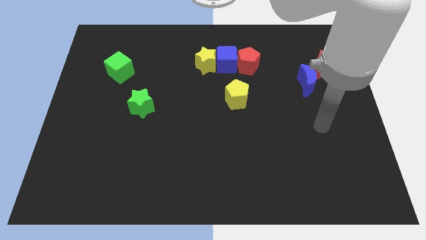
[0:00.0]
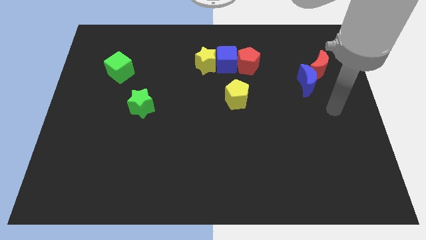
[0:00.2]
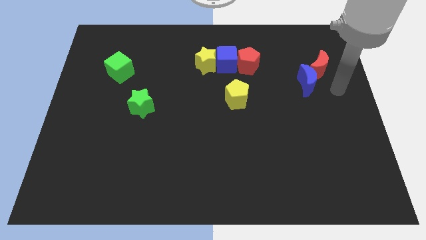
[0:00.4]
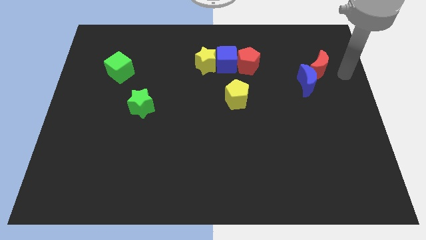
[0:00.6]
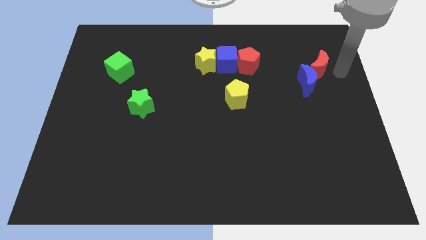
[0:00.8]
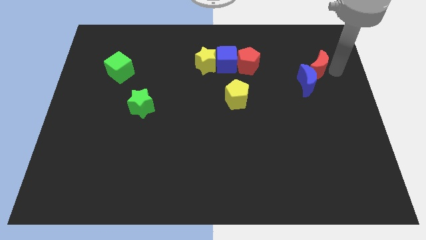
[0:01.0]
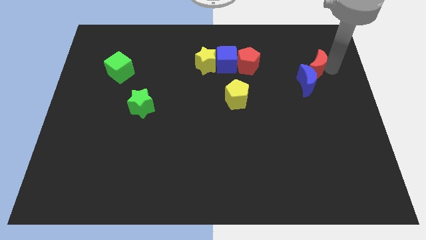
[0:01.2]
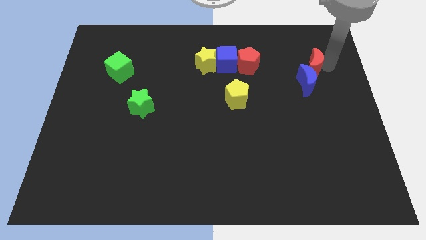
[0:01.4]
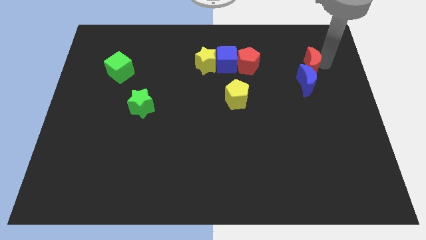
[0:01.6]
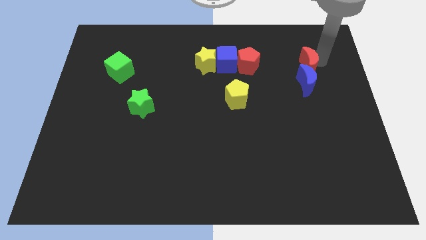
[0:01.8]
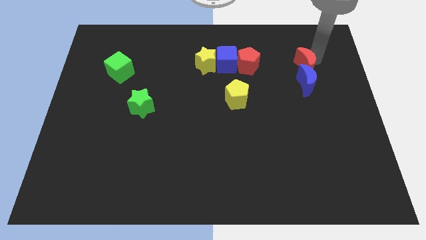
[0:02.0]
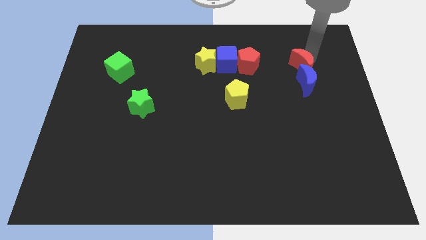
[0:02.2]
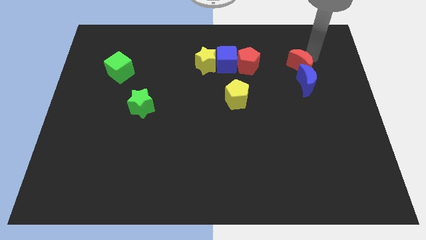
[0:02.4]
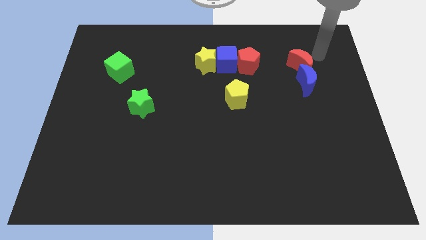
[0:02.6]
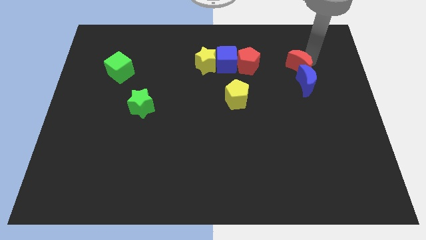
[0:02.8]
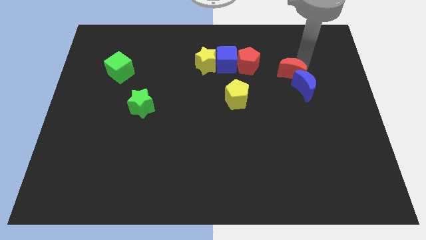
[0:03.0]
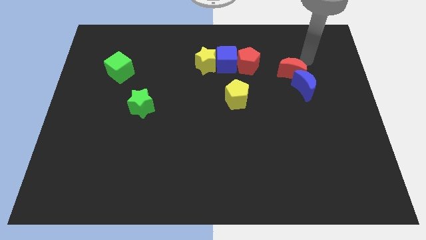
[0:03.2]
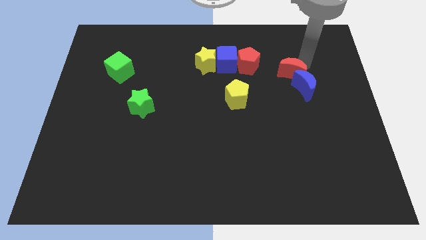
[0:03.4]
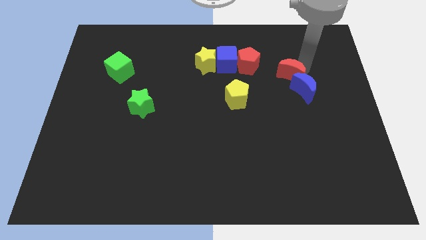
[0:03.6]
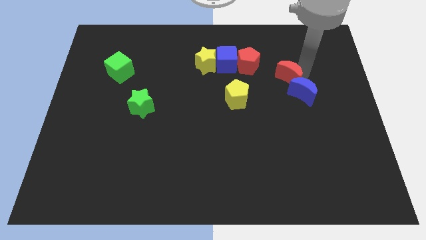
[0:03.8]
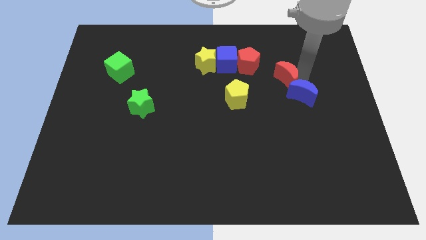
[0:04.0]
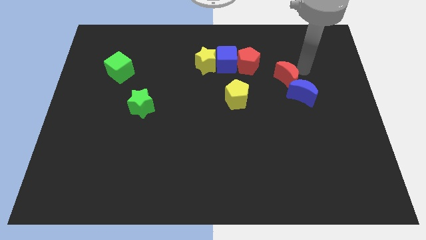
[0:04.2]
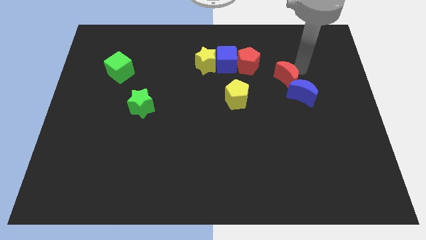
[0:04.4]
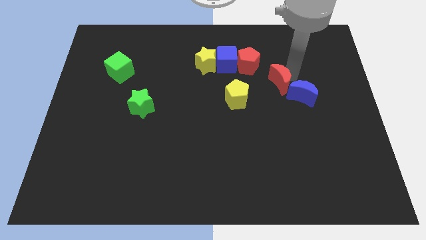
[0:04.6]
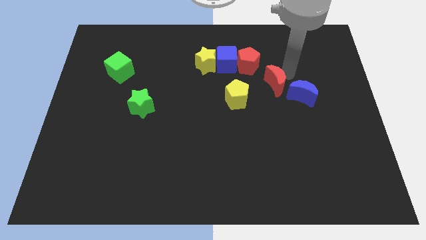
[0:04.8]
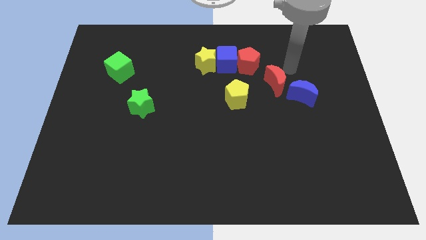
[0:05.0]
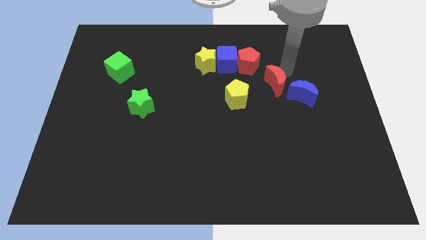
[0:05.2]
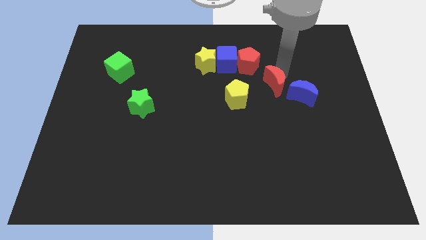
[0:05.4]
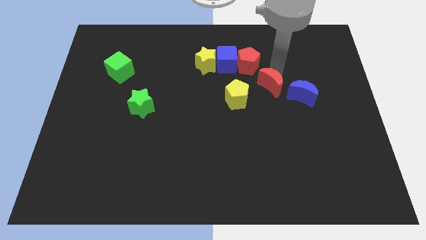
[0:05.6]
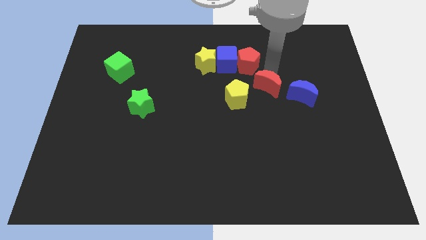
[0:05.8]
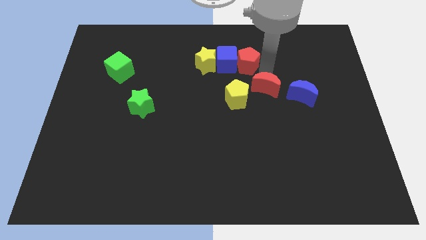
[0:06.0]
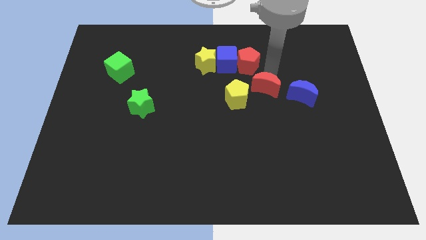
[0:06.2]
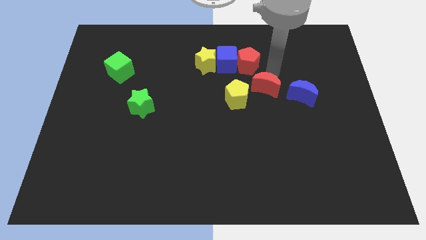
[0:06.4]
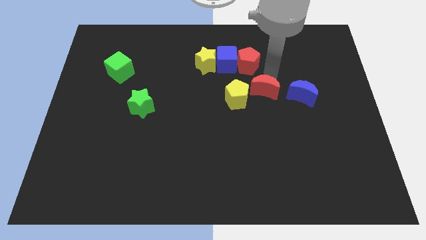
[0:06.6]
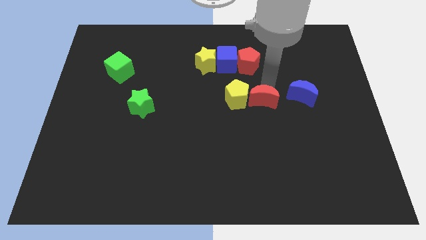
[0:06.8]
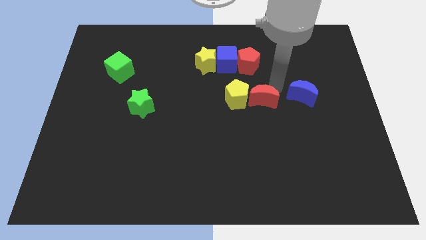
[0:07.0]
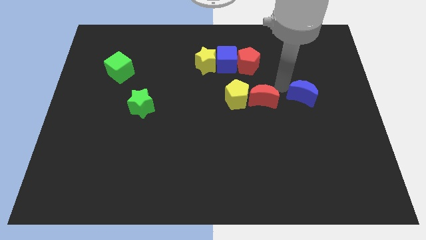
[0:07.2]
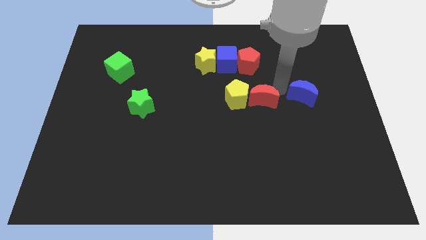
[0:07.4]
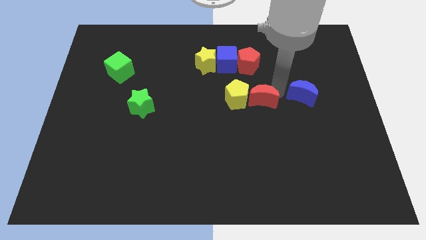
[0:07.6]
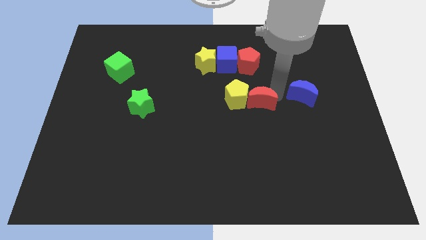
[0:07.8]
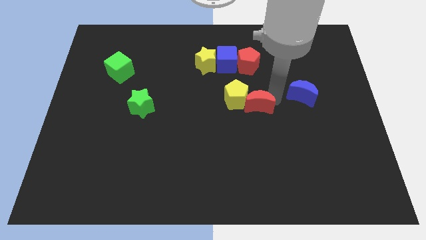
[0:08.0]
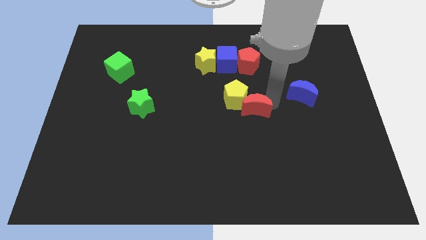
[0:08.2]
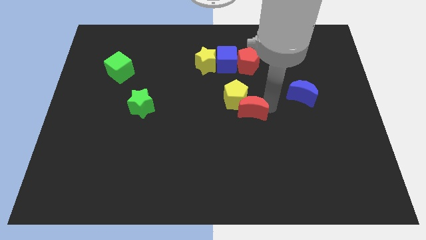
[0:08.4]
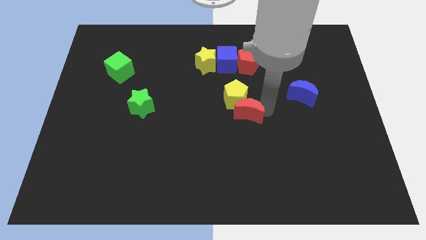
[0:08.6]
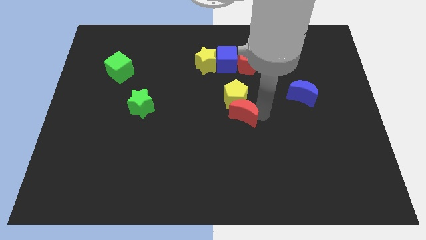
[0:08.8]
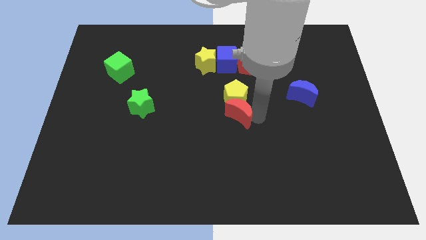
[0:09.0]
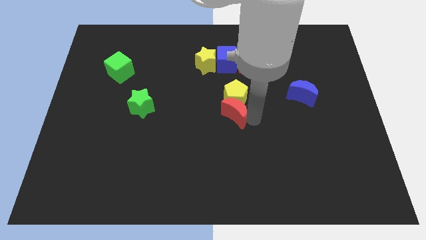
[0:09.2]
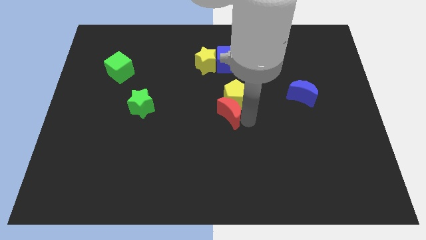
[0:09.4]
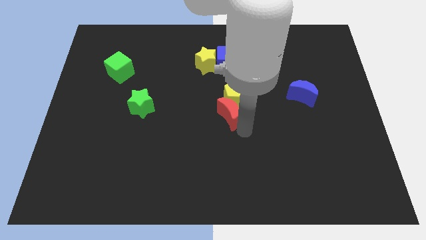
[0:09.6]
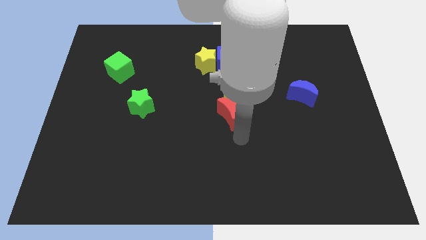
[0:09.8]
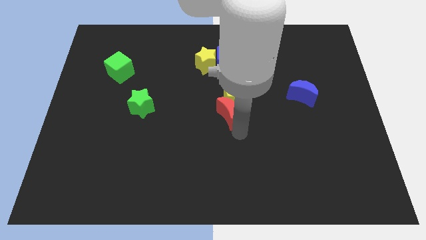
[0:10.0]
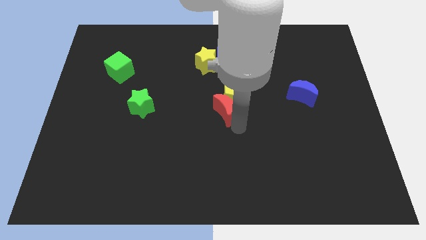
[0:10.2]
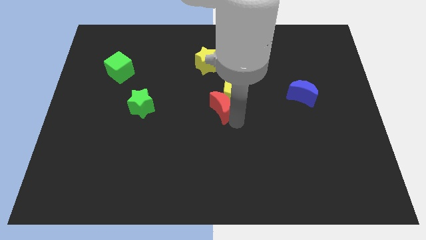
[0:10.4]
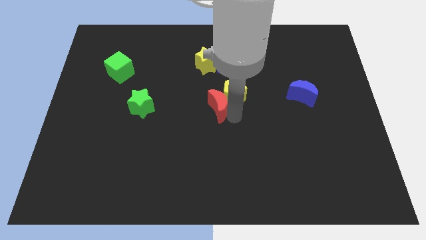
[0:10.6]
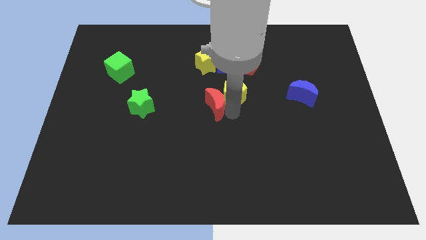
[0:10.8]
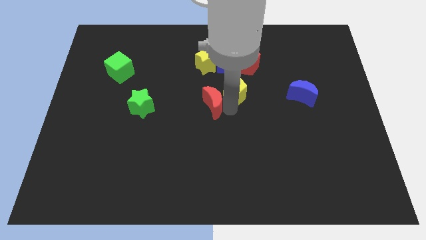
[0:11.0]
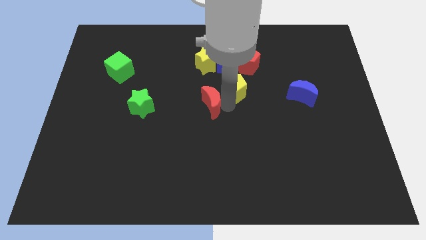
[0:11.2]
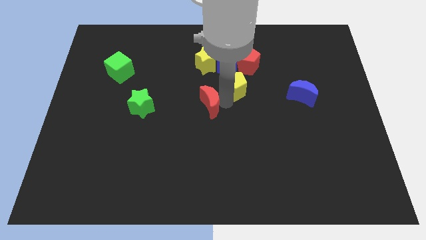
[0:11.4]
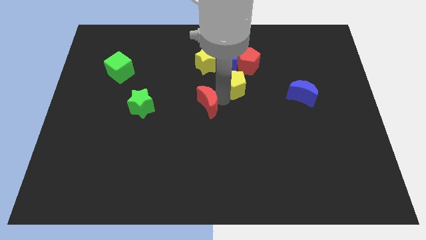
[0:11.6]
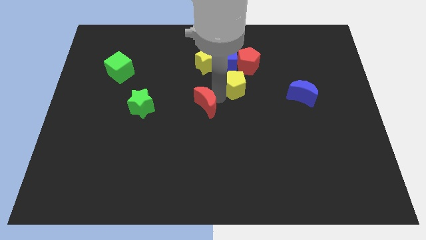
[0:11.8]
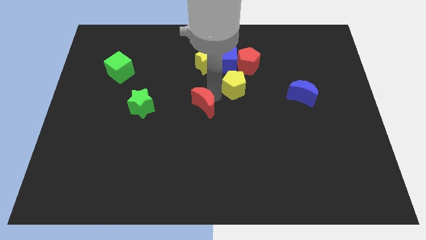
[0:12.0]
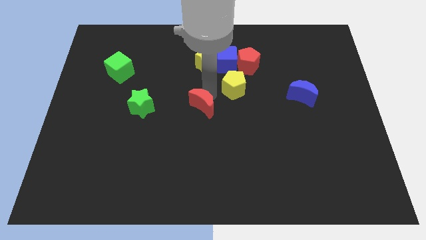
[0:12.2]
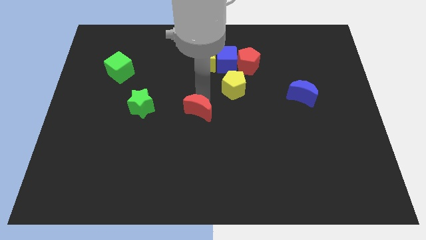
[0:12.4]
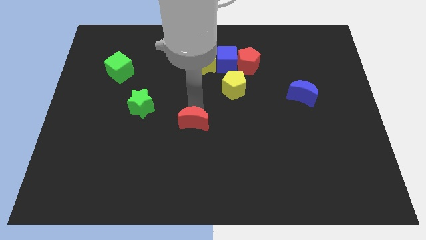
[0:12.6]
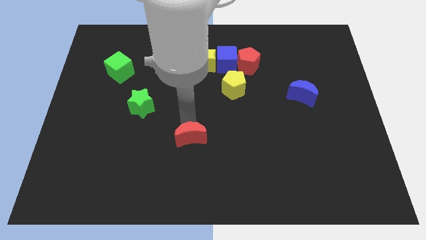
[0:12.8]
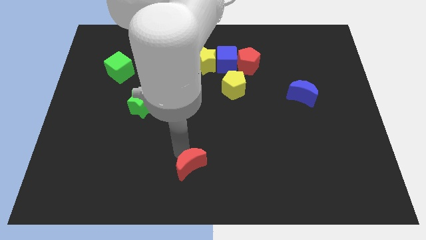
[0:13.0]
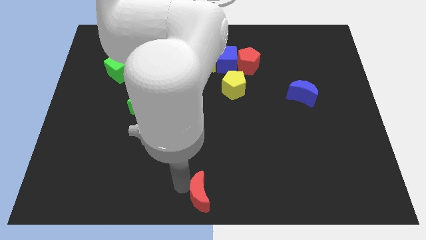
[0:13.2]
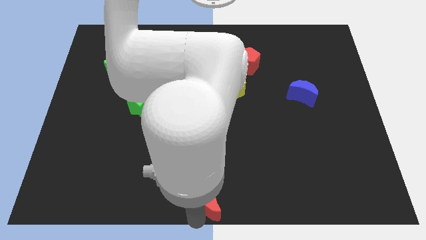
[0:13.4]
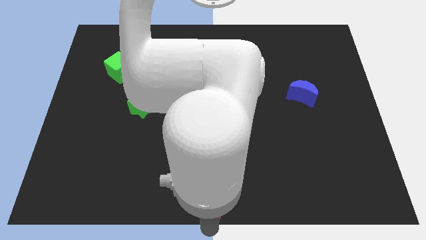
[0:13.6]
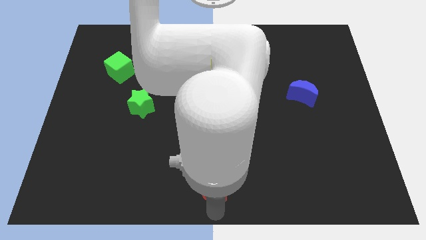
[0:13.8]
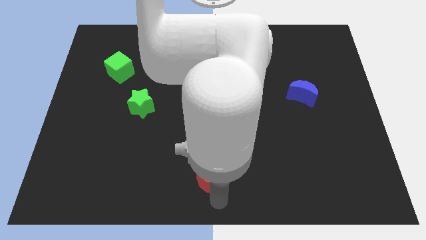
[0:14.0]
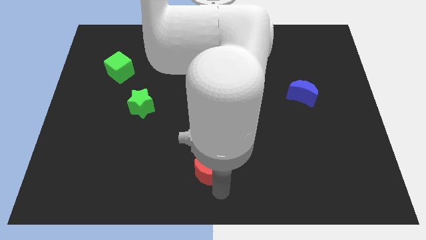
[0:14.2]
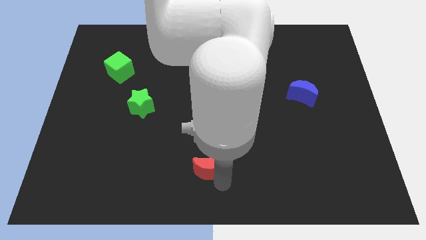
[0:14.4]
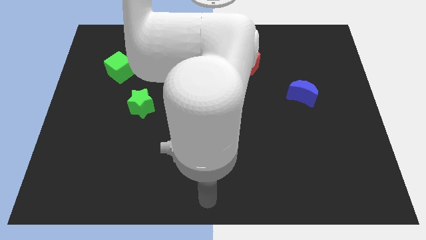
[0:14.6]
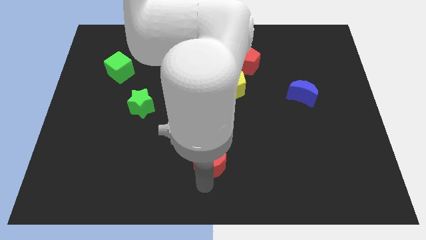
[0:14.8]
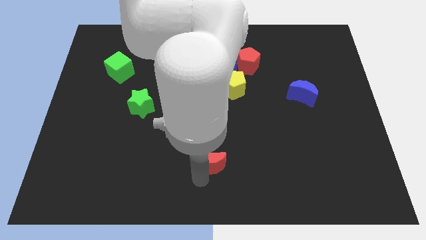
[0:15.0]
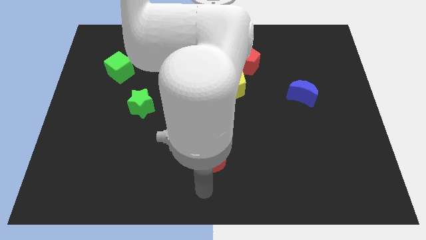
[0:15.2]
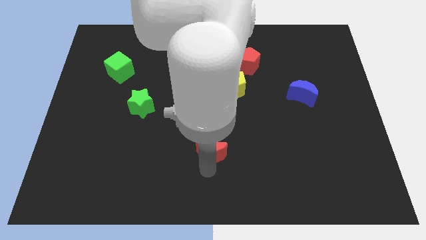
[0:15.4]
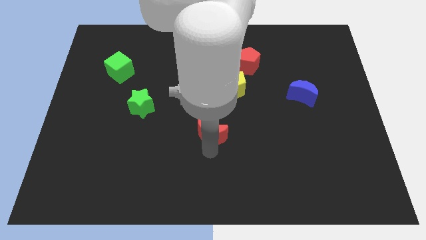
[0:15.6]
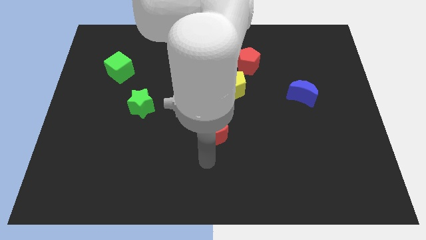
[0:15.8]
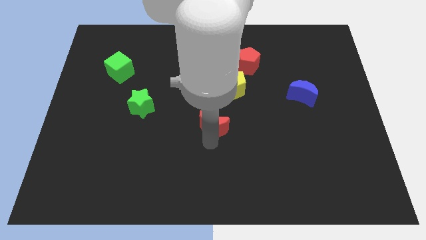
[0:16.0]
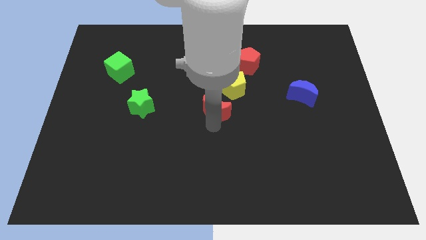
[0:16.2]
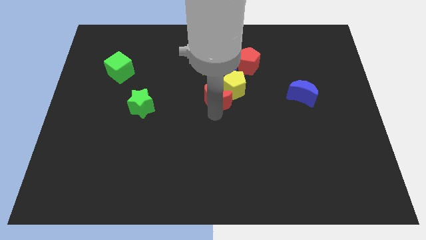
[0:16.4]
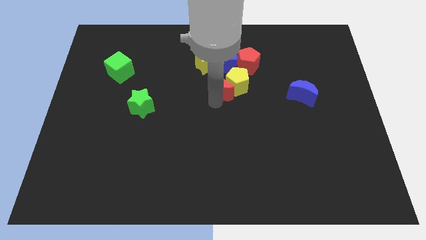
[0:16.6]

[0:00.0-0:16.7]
move the red moon diagonally down and to the left of the red pentagon
